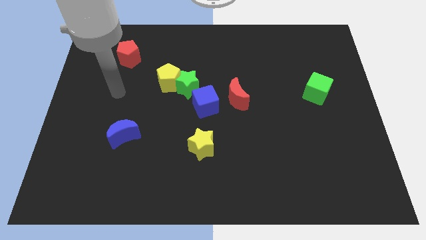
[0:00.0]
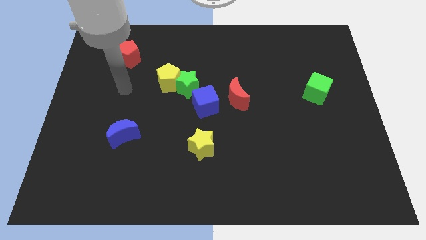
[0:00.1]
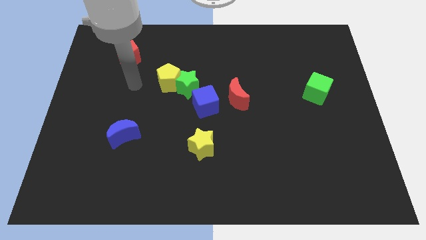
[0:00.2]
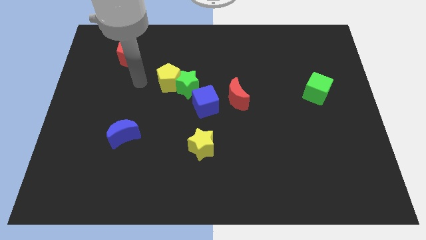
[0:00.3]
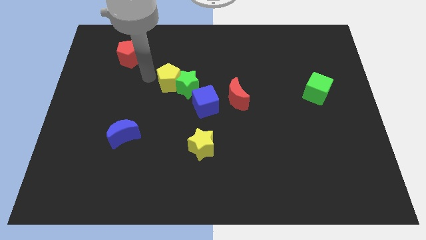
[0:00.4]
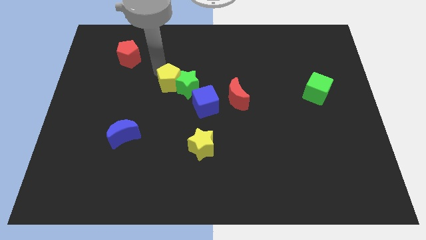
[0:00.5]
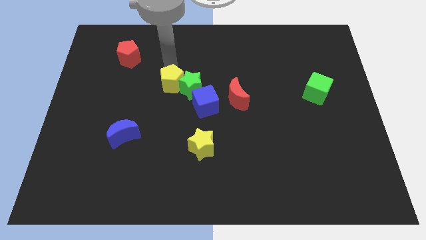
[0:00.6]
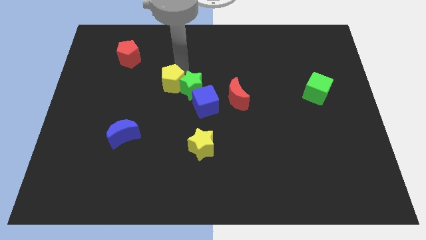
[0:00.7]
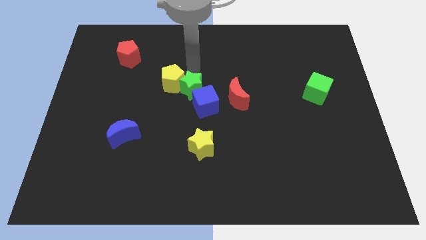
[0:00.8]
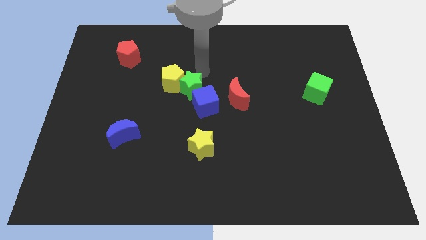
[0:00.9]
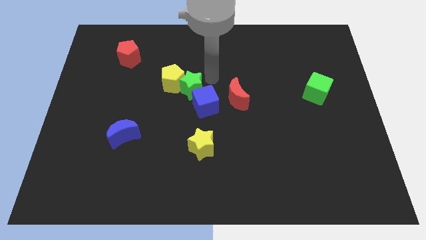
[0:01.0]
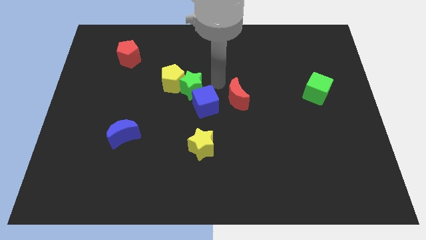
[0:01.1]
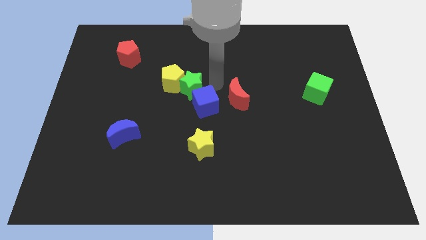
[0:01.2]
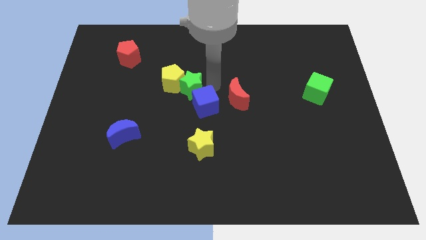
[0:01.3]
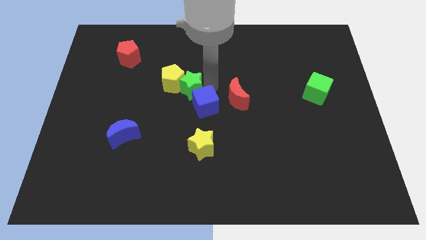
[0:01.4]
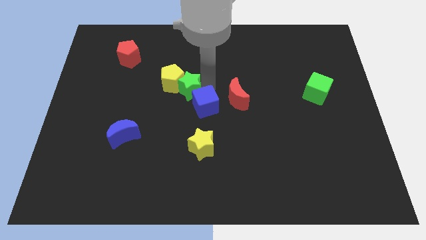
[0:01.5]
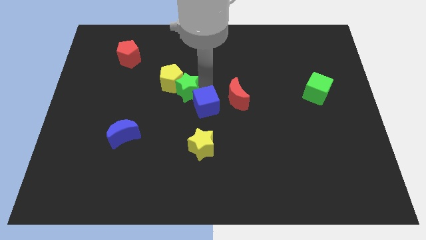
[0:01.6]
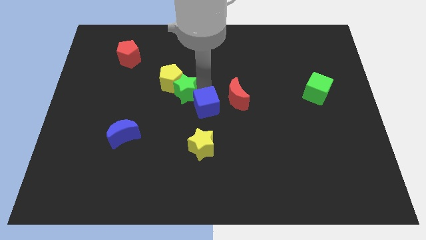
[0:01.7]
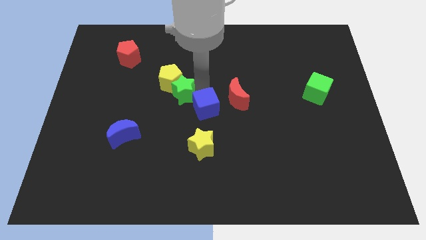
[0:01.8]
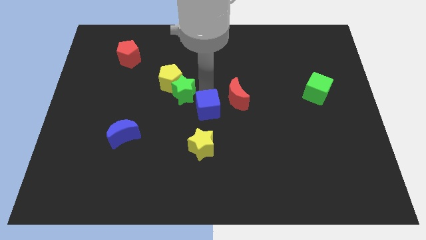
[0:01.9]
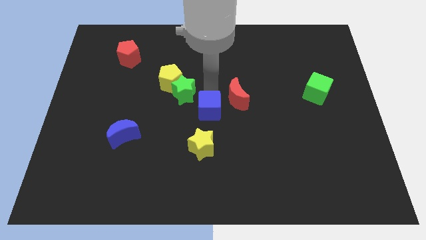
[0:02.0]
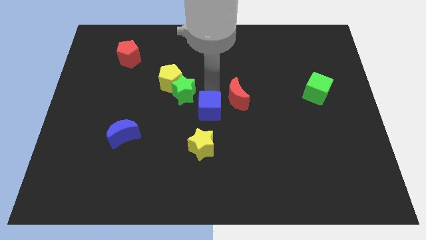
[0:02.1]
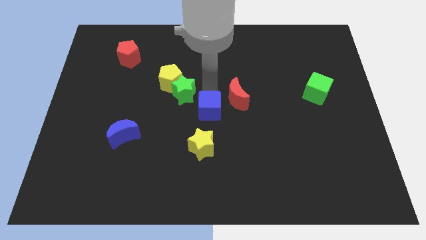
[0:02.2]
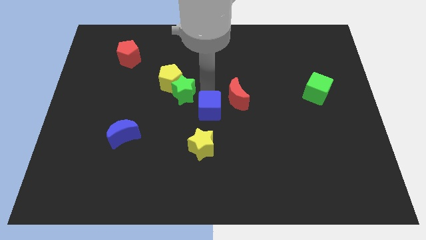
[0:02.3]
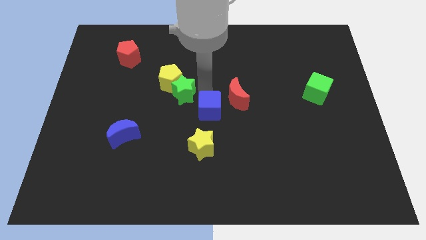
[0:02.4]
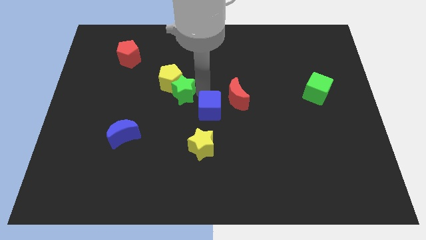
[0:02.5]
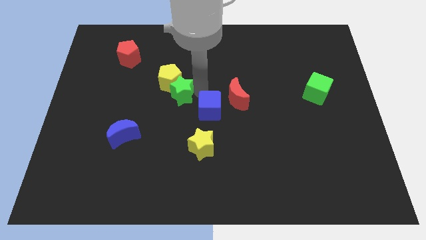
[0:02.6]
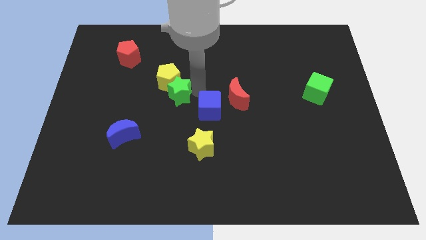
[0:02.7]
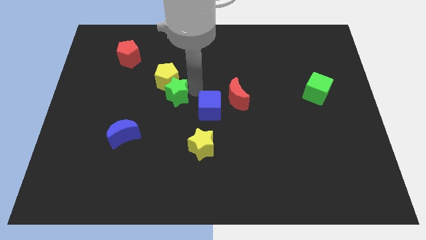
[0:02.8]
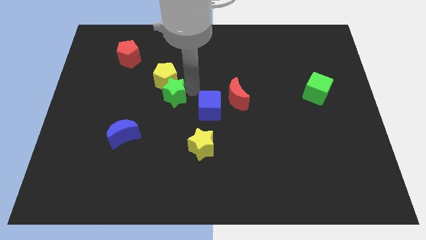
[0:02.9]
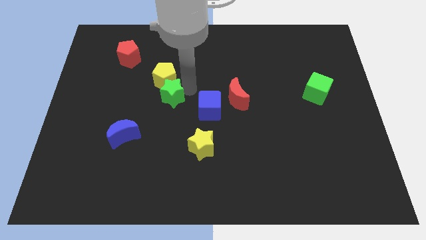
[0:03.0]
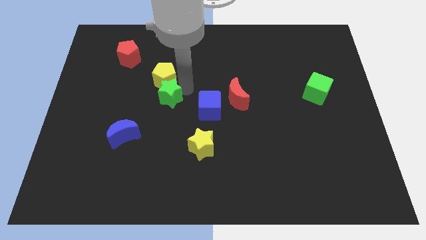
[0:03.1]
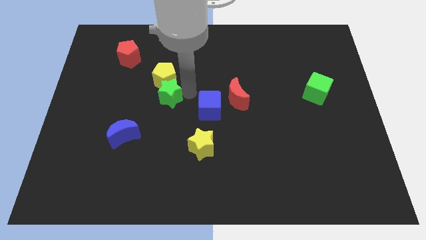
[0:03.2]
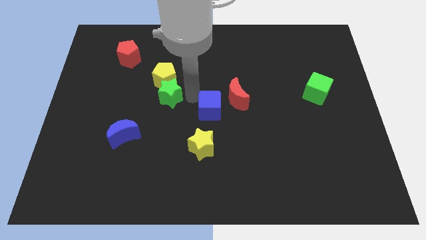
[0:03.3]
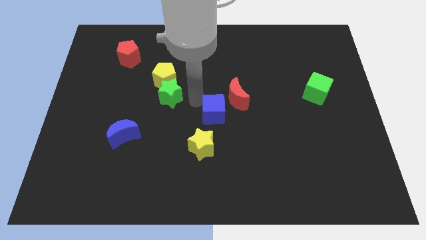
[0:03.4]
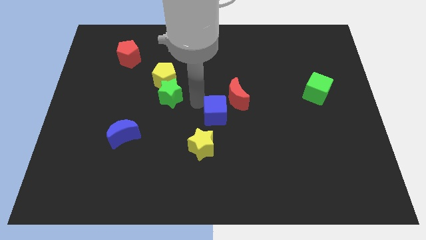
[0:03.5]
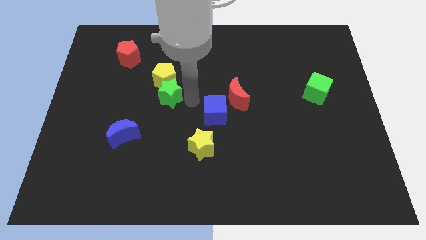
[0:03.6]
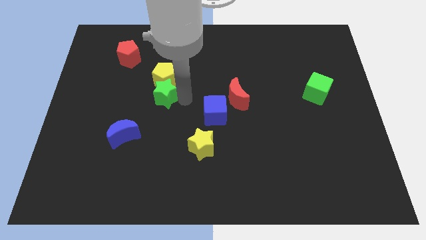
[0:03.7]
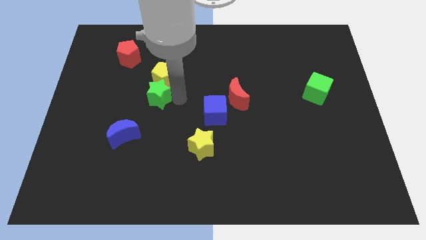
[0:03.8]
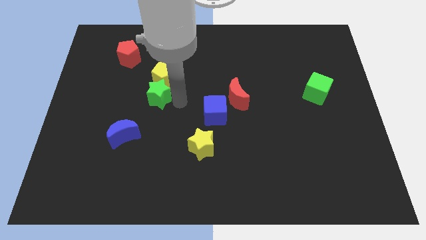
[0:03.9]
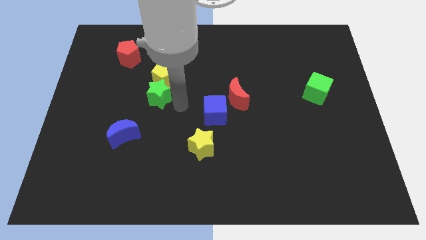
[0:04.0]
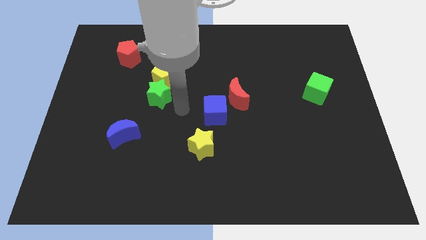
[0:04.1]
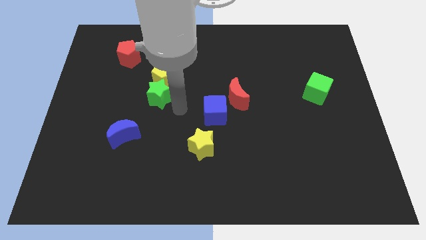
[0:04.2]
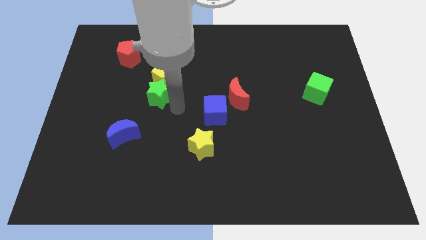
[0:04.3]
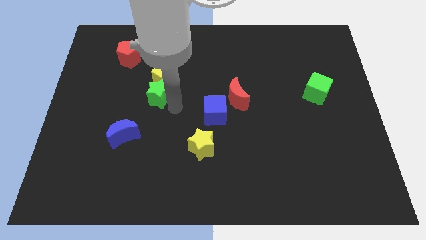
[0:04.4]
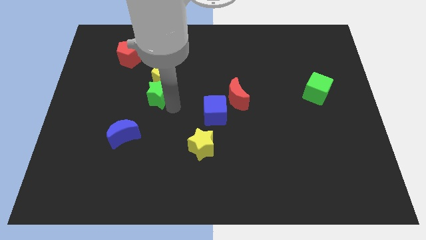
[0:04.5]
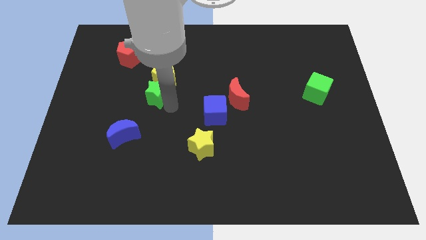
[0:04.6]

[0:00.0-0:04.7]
push the green star to the left a little bit

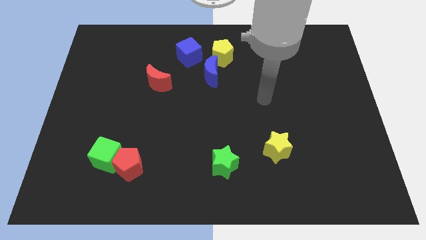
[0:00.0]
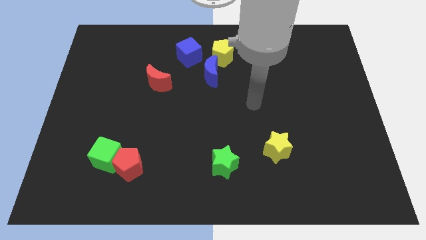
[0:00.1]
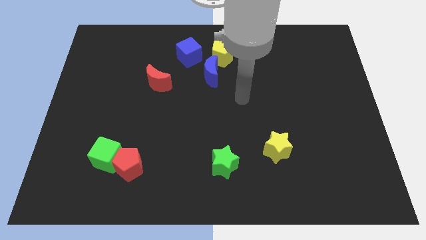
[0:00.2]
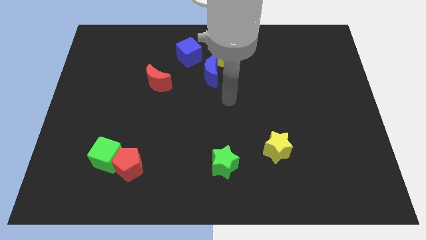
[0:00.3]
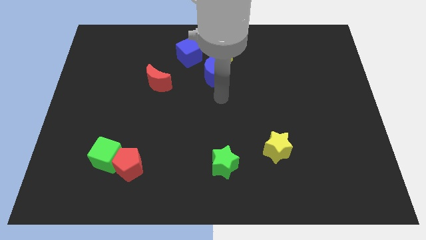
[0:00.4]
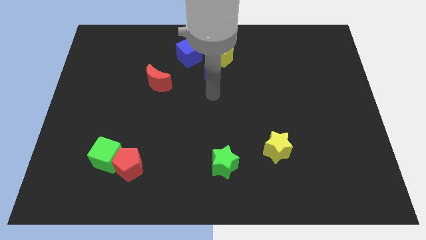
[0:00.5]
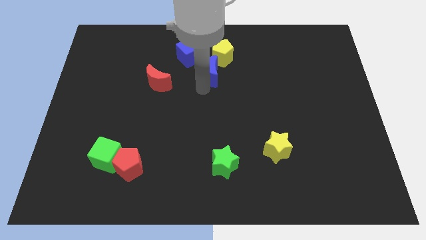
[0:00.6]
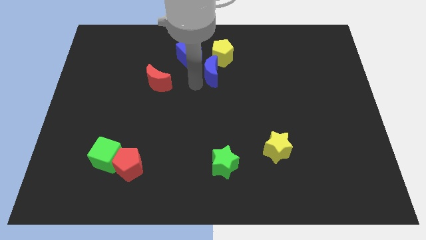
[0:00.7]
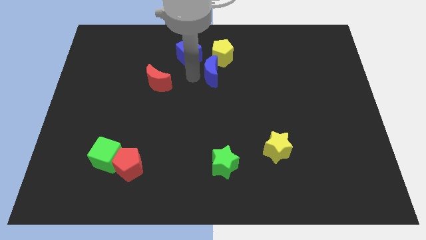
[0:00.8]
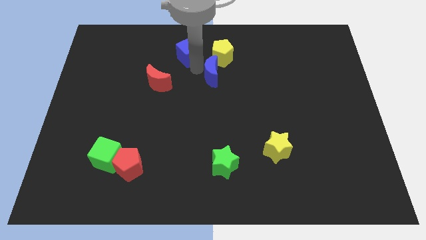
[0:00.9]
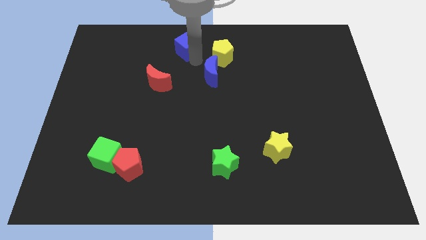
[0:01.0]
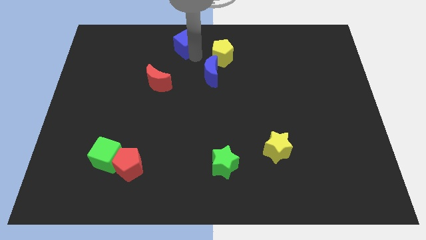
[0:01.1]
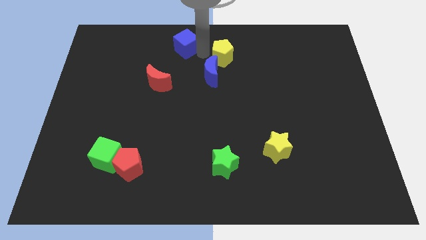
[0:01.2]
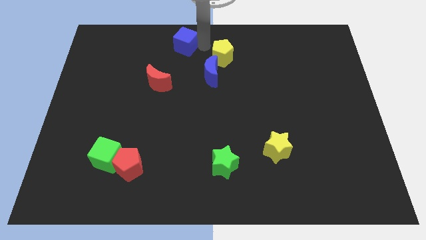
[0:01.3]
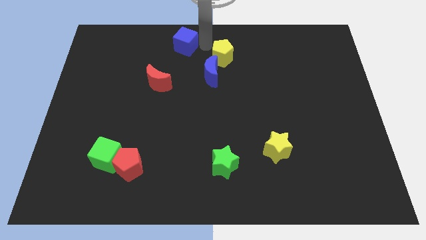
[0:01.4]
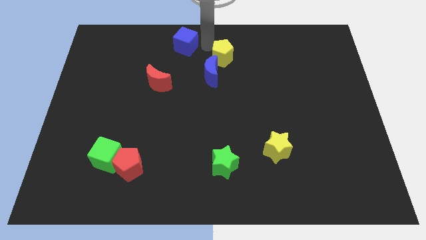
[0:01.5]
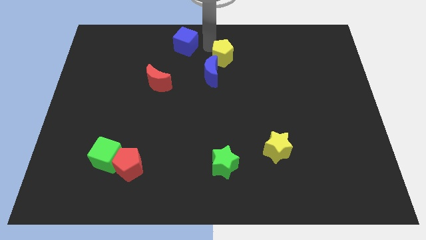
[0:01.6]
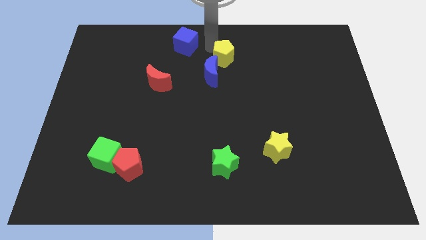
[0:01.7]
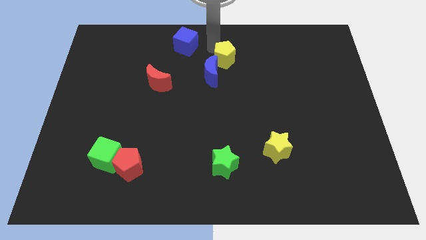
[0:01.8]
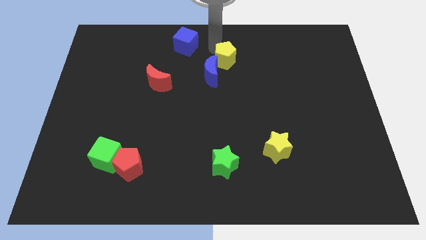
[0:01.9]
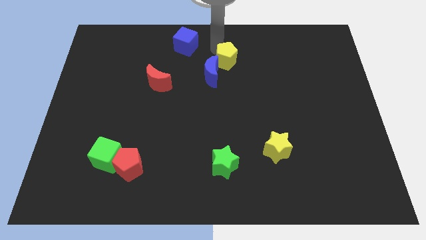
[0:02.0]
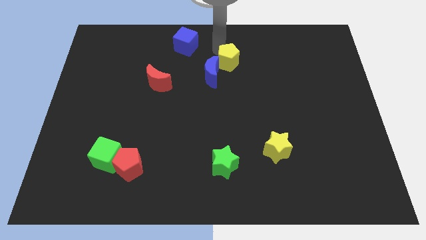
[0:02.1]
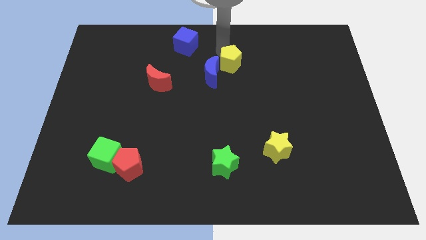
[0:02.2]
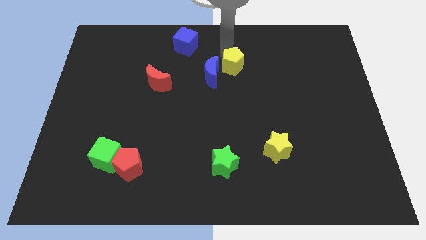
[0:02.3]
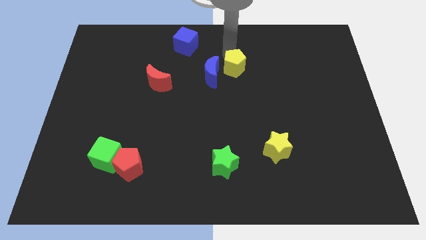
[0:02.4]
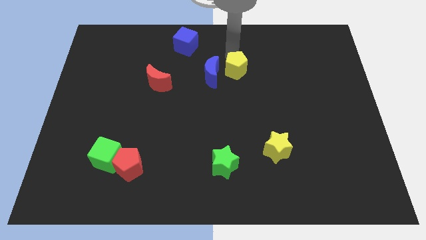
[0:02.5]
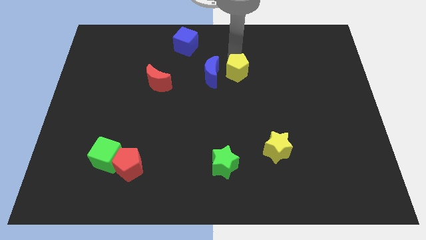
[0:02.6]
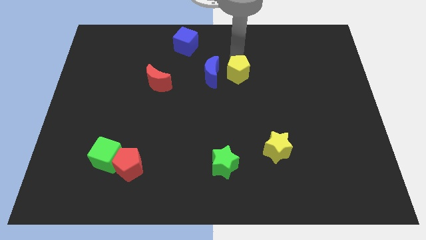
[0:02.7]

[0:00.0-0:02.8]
push the yellow pentagon downwards and right slightly

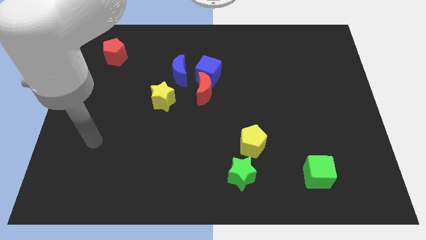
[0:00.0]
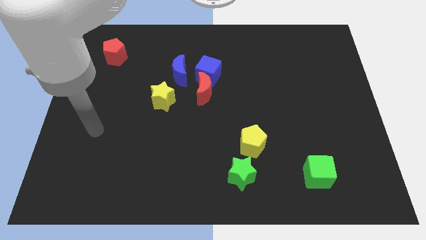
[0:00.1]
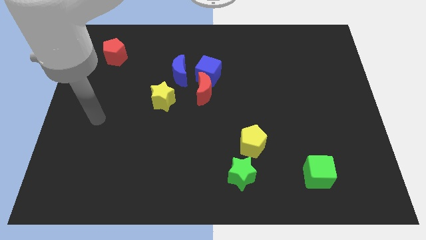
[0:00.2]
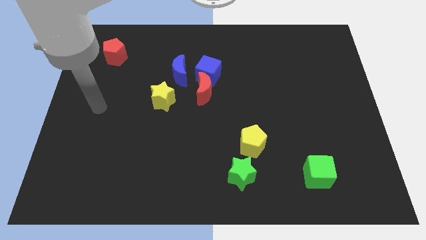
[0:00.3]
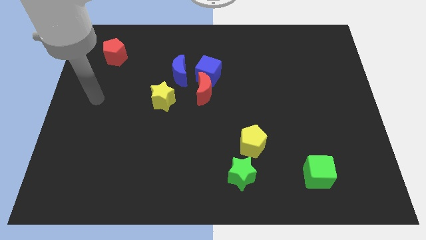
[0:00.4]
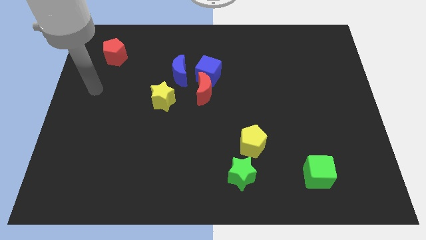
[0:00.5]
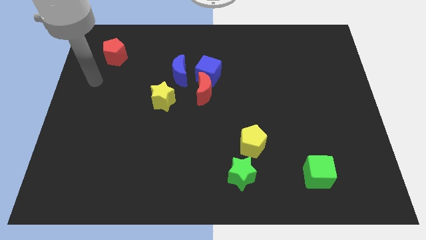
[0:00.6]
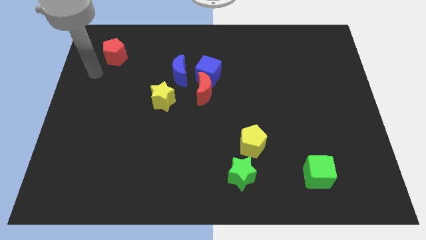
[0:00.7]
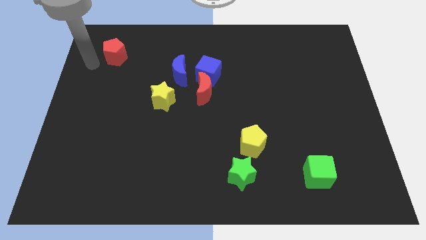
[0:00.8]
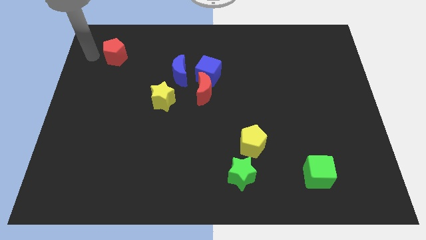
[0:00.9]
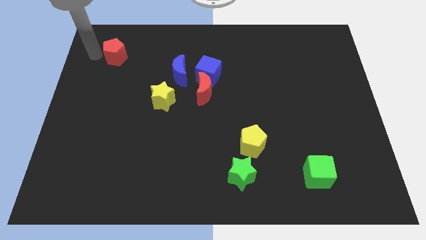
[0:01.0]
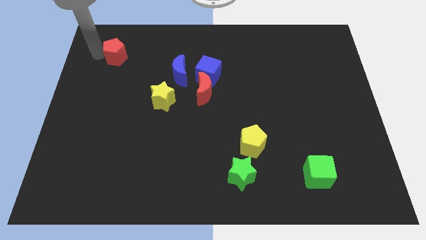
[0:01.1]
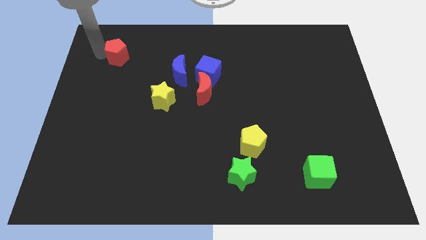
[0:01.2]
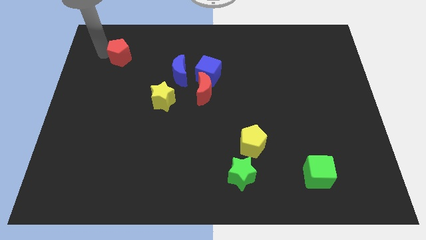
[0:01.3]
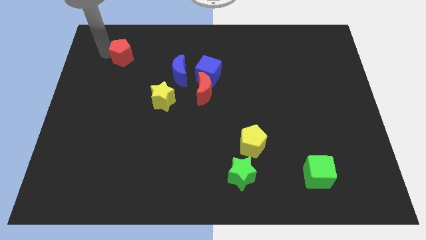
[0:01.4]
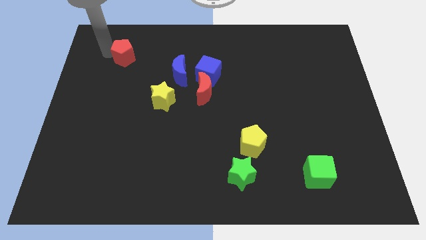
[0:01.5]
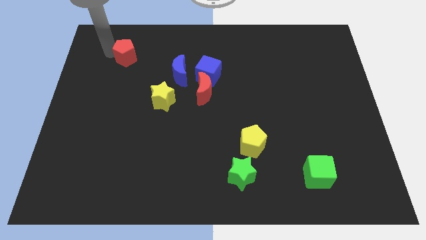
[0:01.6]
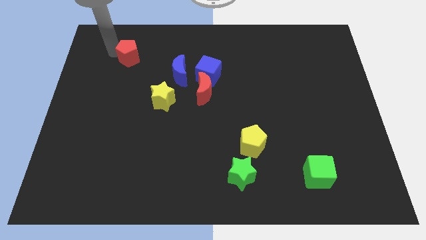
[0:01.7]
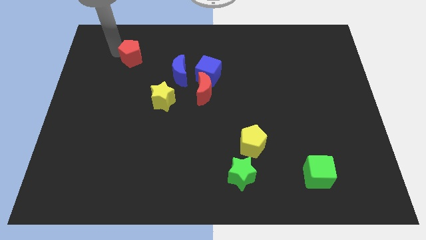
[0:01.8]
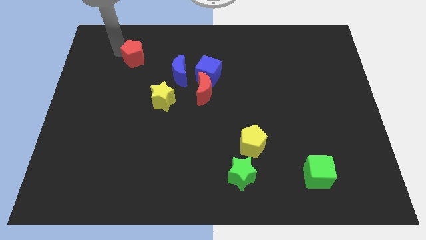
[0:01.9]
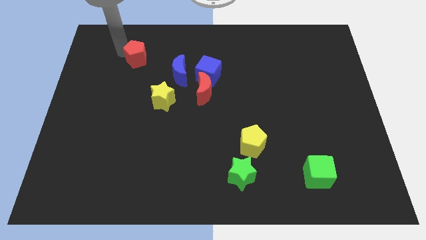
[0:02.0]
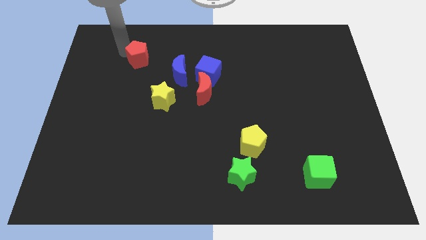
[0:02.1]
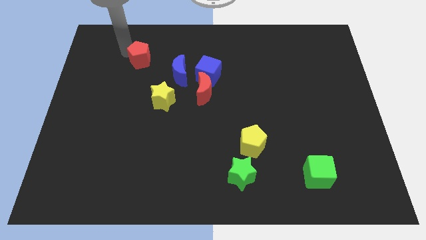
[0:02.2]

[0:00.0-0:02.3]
slightly slide the red pentagon to the right
